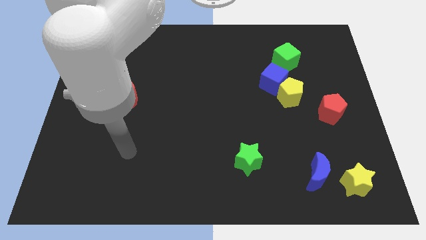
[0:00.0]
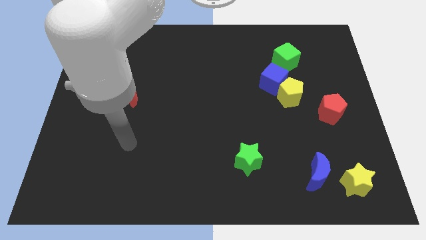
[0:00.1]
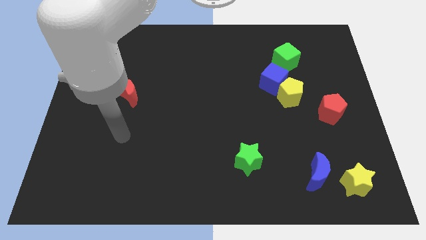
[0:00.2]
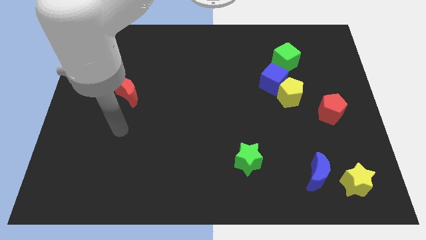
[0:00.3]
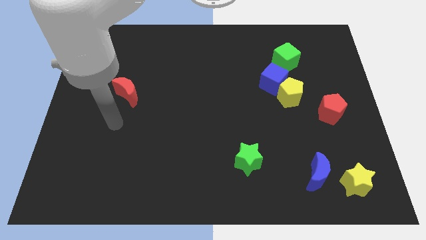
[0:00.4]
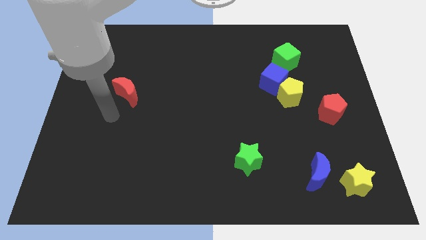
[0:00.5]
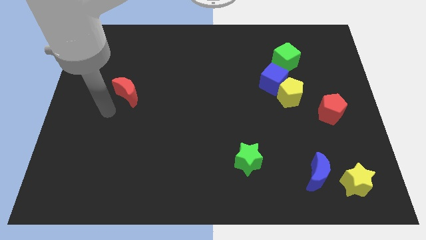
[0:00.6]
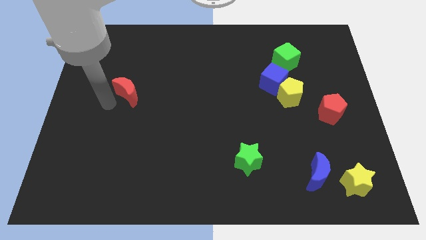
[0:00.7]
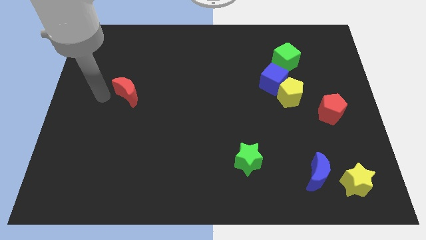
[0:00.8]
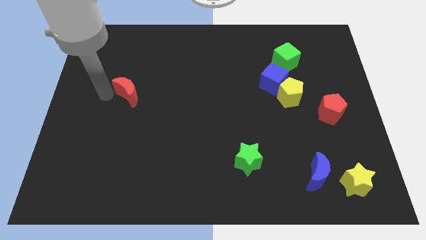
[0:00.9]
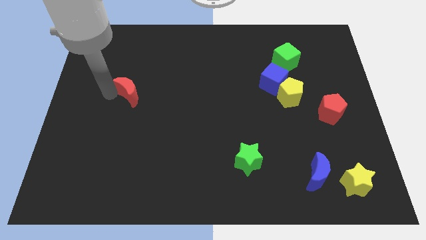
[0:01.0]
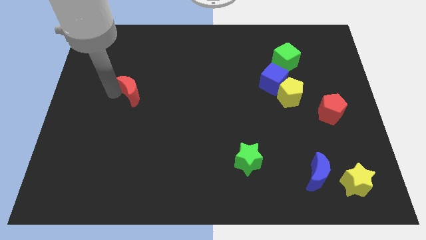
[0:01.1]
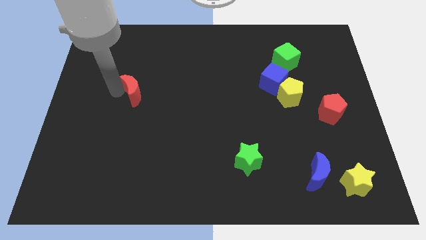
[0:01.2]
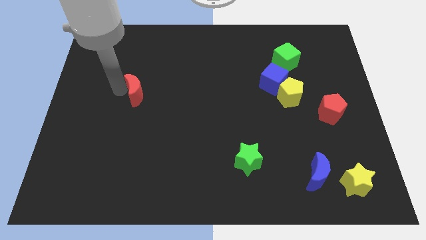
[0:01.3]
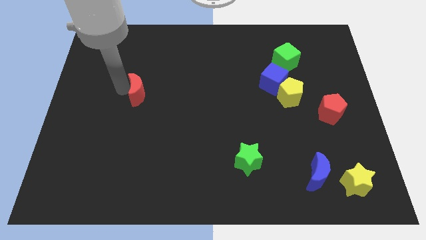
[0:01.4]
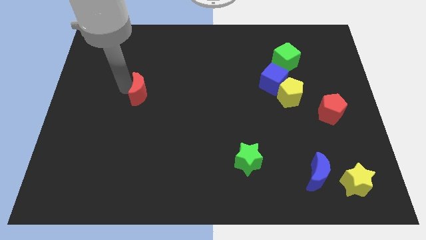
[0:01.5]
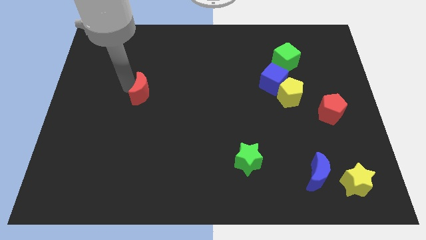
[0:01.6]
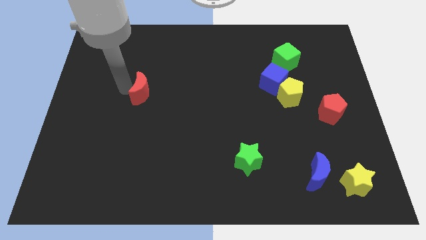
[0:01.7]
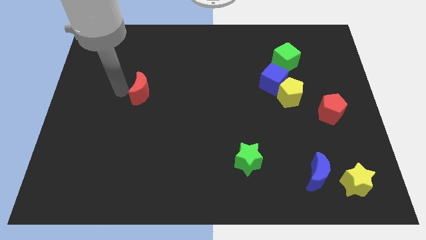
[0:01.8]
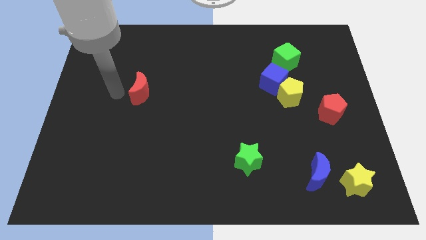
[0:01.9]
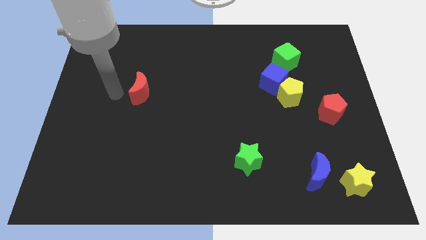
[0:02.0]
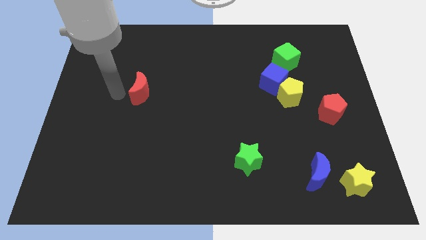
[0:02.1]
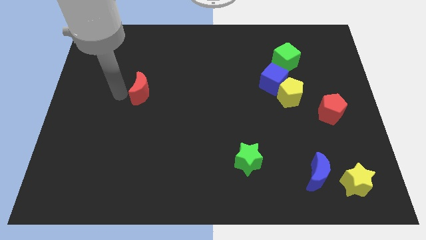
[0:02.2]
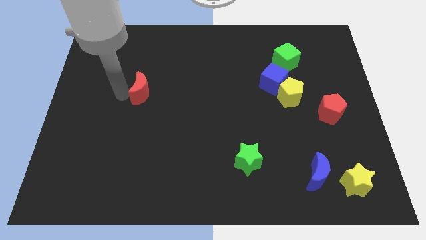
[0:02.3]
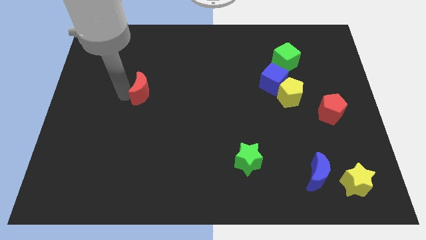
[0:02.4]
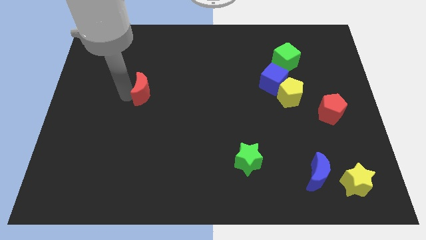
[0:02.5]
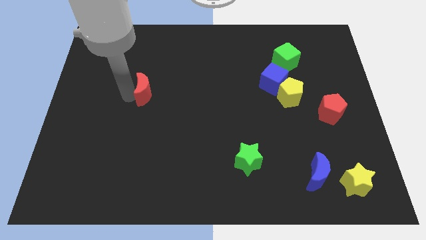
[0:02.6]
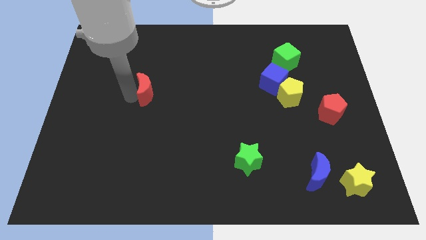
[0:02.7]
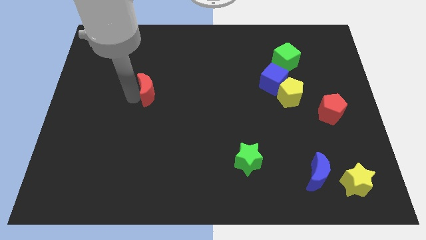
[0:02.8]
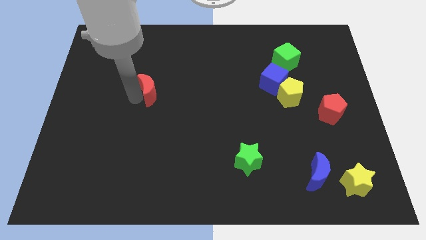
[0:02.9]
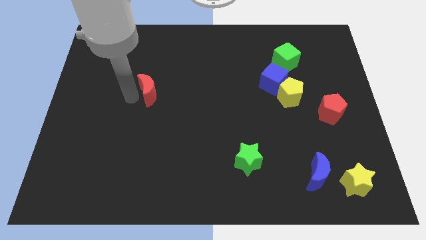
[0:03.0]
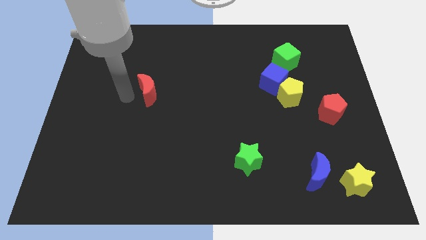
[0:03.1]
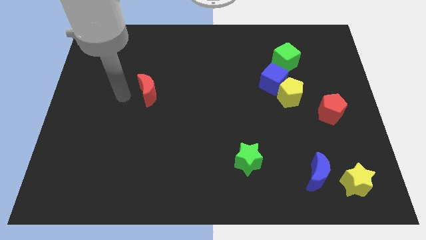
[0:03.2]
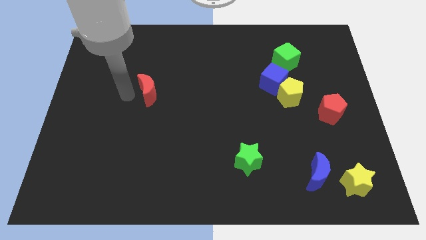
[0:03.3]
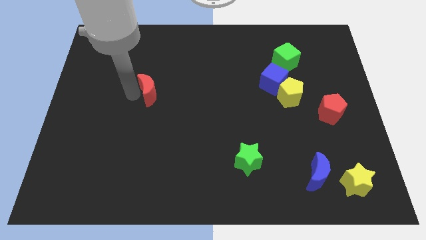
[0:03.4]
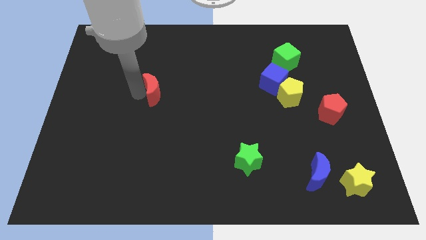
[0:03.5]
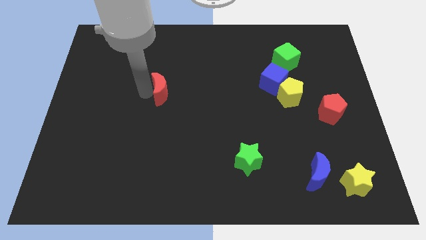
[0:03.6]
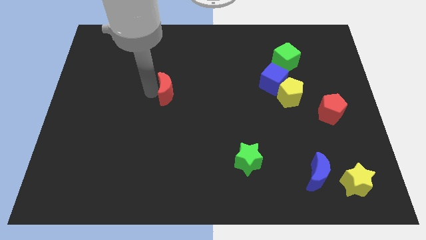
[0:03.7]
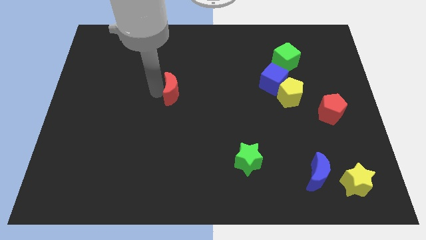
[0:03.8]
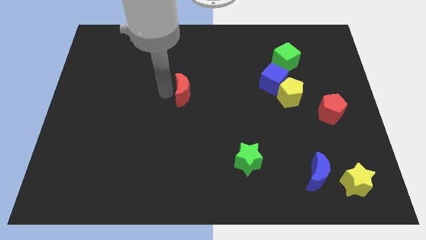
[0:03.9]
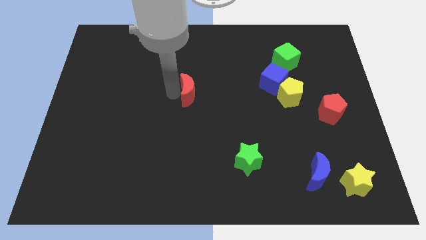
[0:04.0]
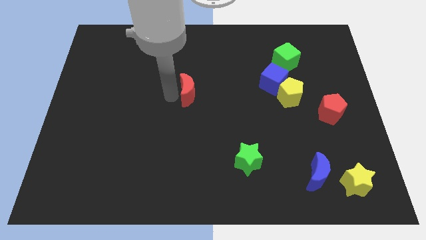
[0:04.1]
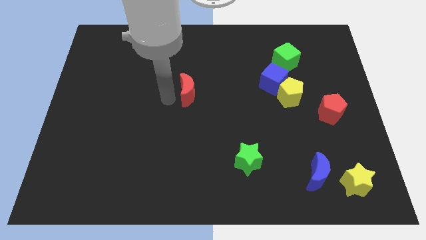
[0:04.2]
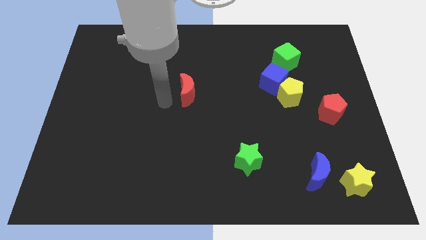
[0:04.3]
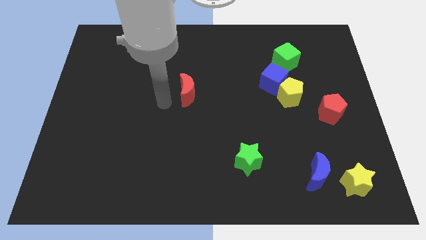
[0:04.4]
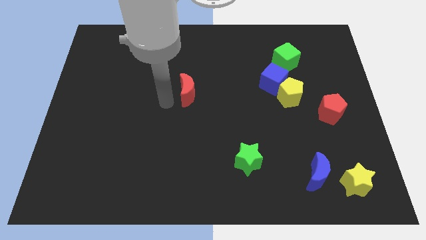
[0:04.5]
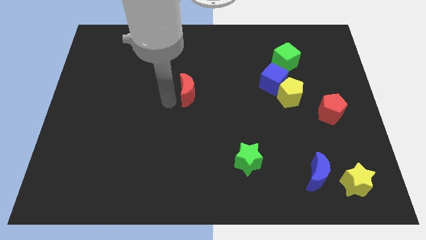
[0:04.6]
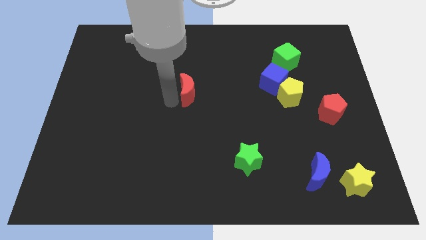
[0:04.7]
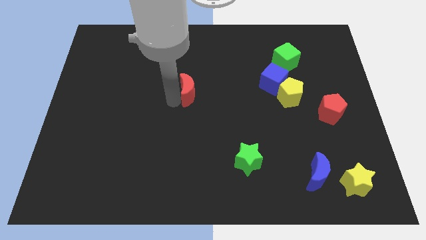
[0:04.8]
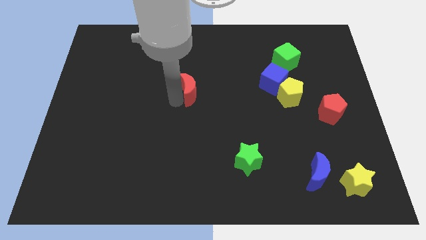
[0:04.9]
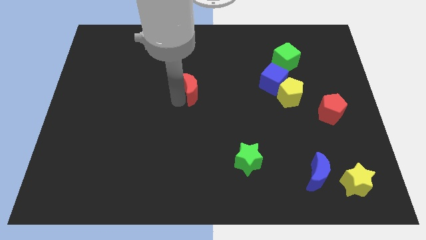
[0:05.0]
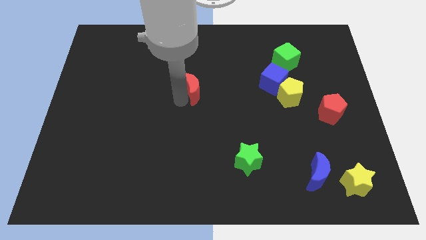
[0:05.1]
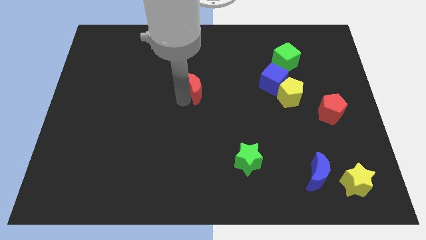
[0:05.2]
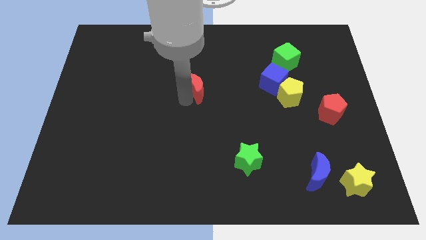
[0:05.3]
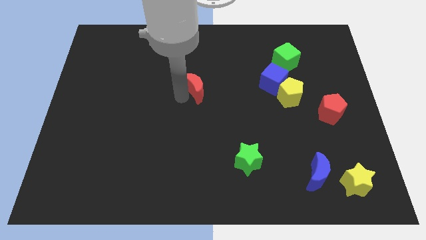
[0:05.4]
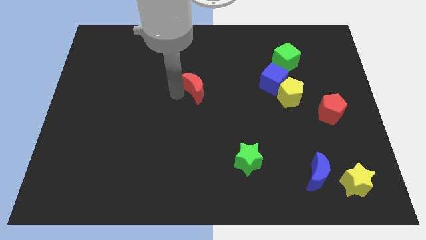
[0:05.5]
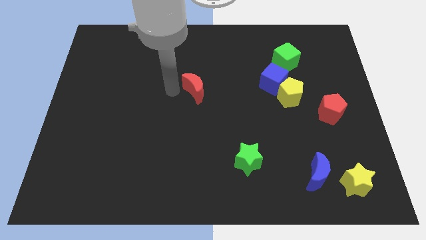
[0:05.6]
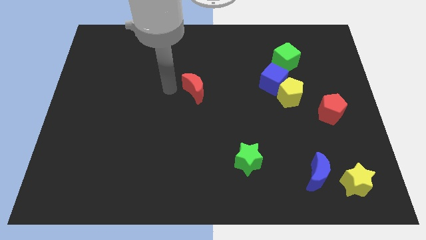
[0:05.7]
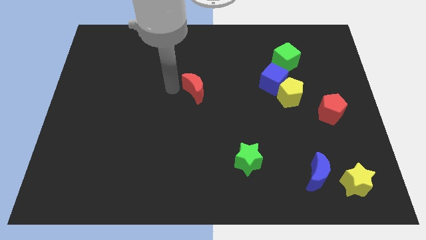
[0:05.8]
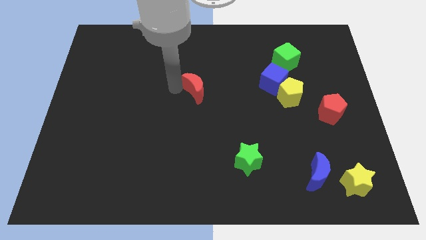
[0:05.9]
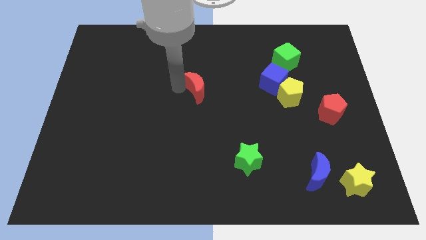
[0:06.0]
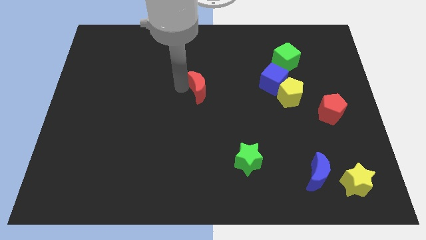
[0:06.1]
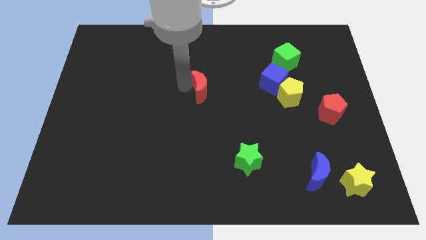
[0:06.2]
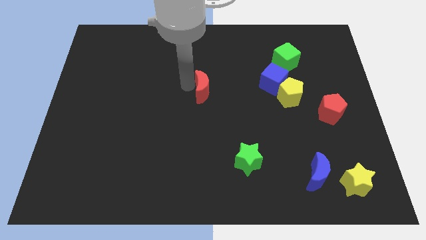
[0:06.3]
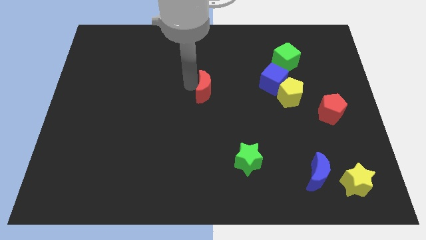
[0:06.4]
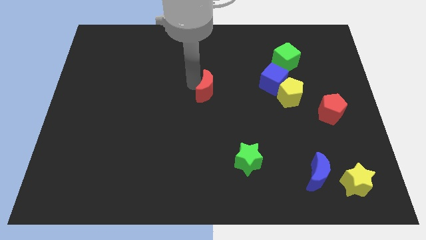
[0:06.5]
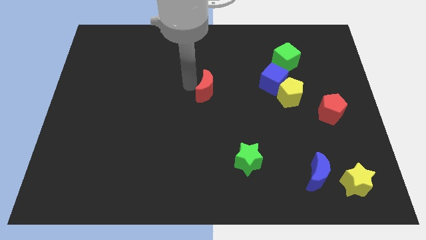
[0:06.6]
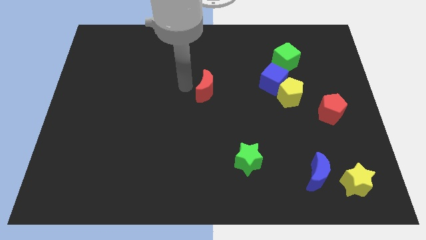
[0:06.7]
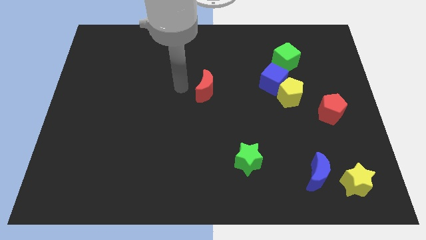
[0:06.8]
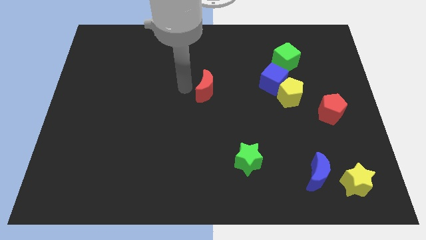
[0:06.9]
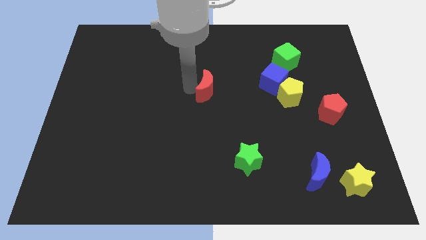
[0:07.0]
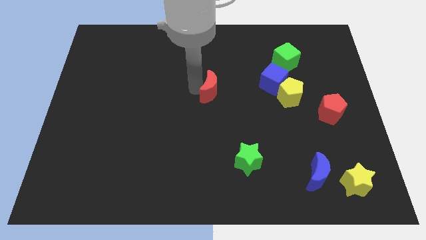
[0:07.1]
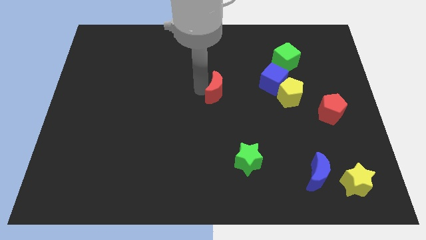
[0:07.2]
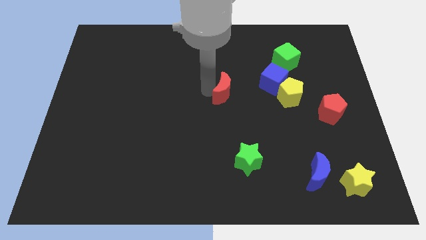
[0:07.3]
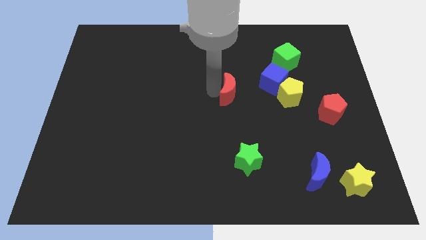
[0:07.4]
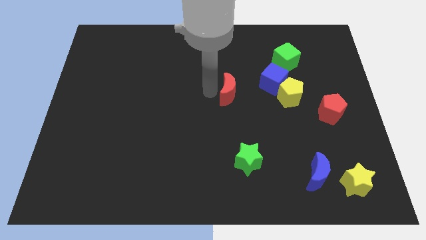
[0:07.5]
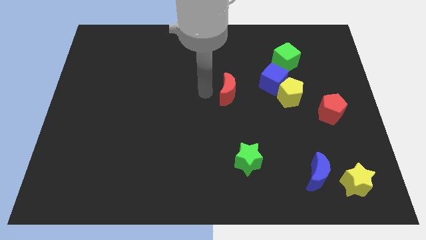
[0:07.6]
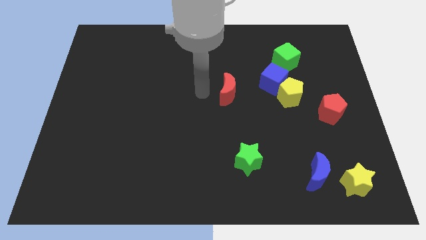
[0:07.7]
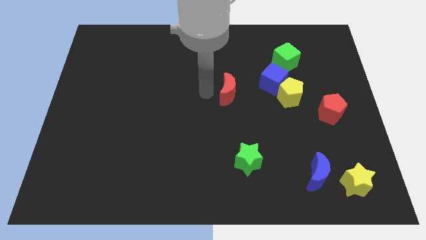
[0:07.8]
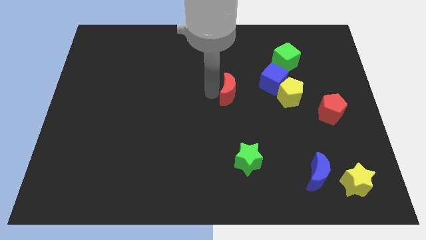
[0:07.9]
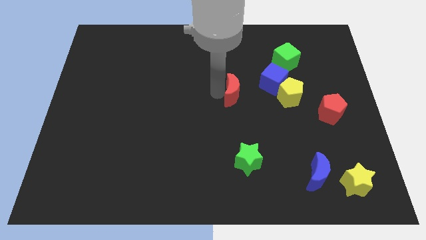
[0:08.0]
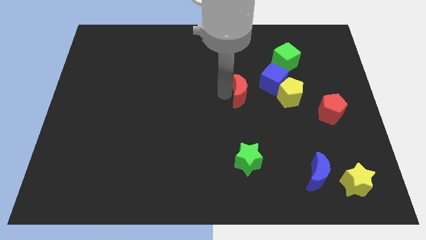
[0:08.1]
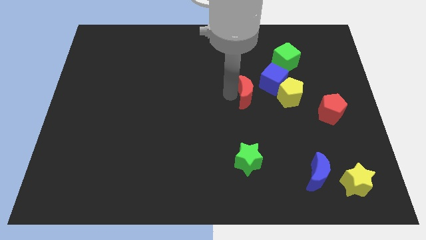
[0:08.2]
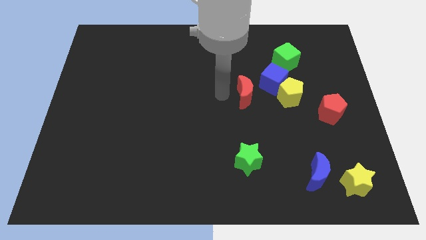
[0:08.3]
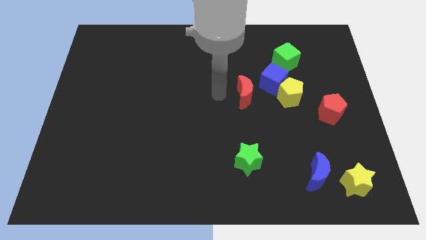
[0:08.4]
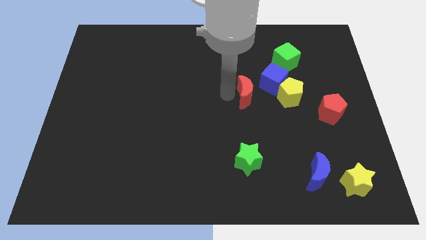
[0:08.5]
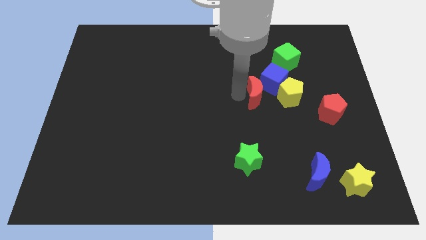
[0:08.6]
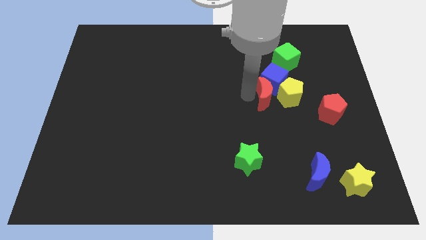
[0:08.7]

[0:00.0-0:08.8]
slide the red moon to the yellow pentagon
